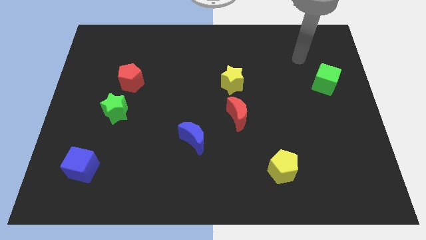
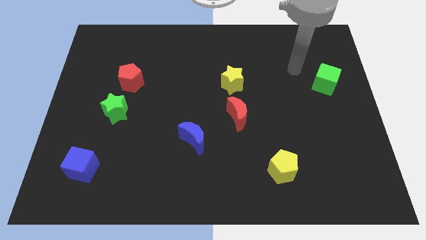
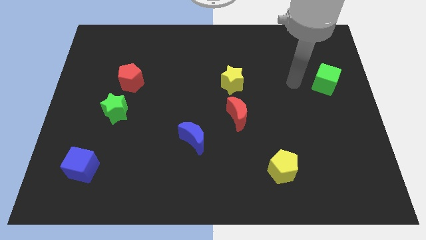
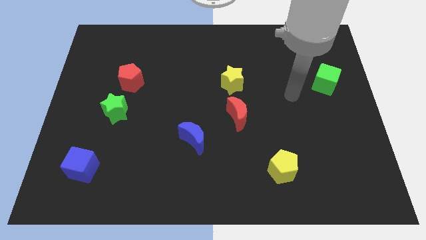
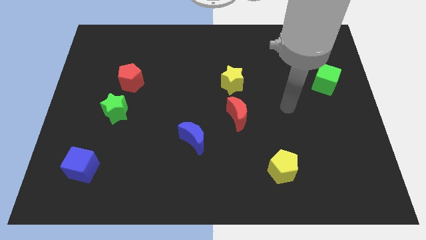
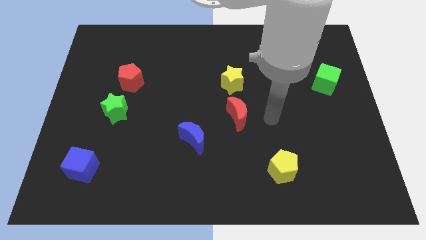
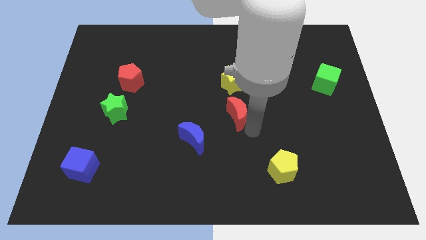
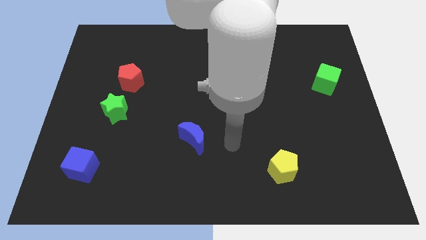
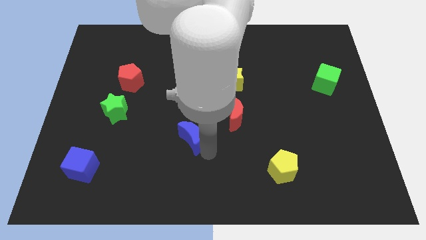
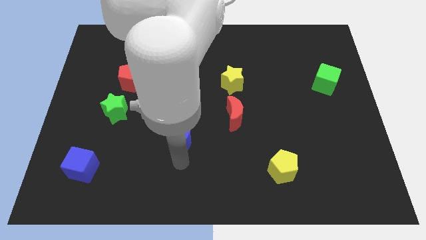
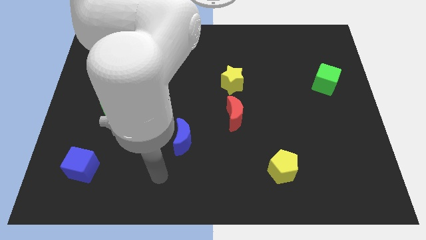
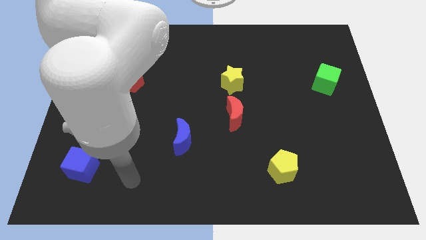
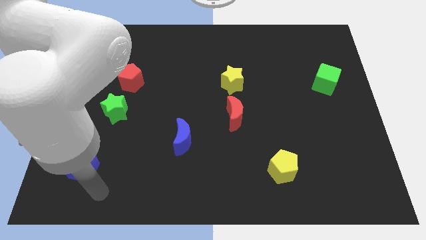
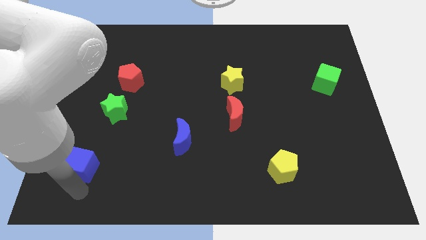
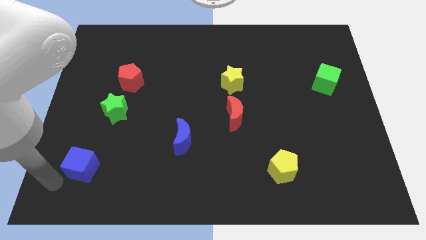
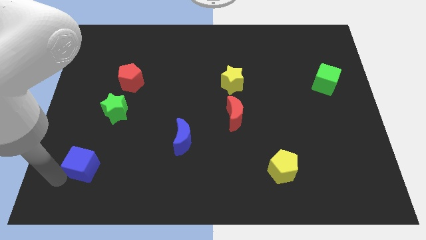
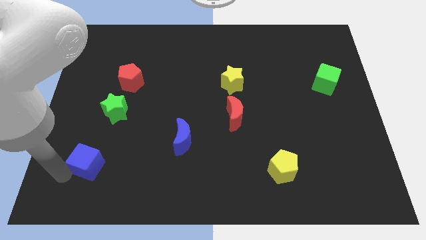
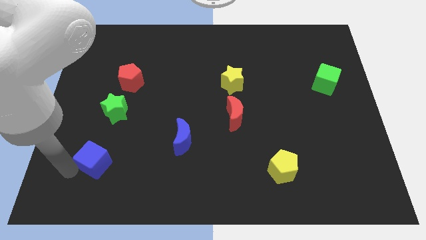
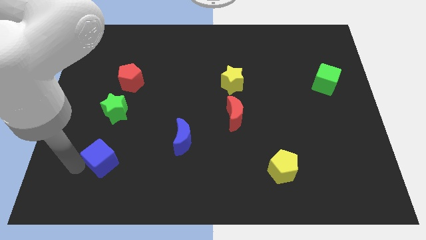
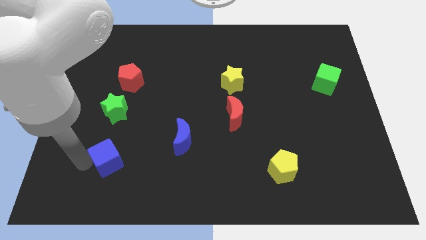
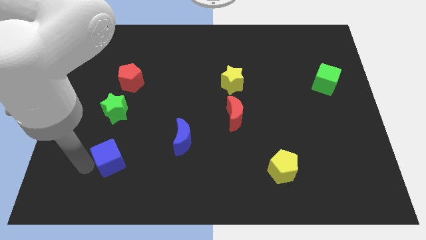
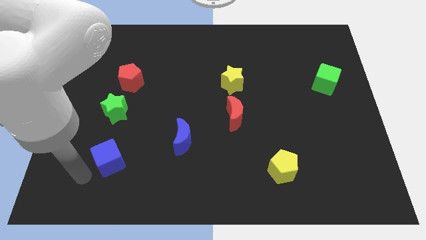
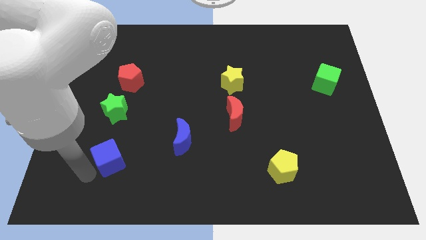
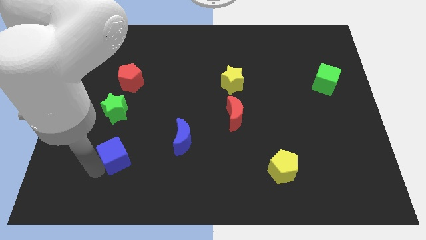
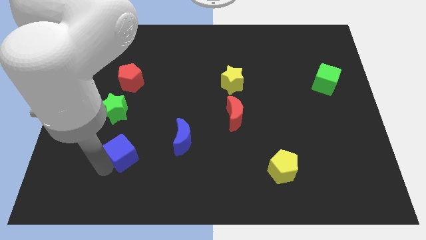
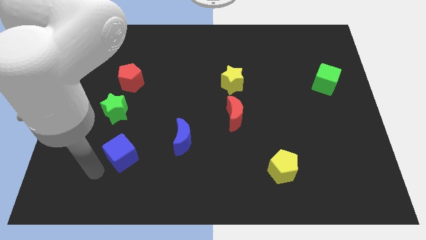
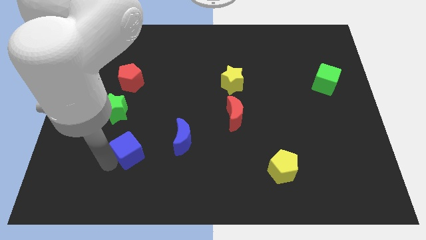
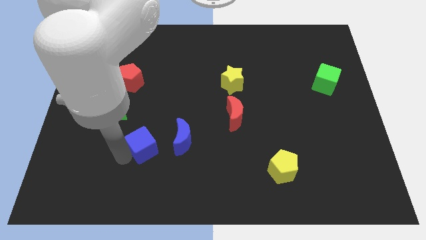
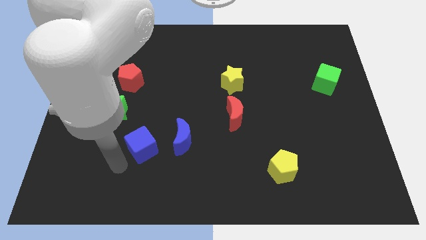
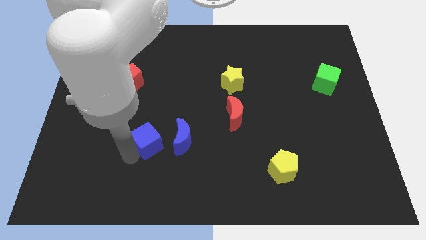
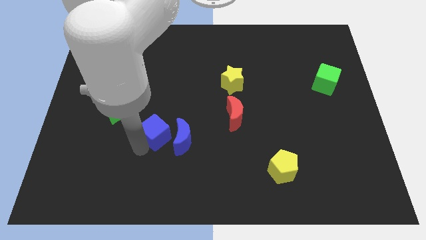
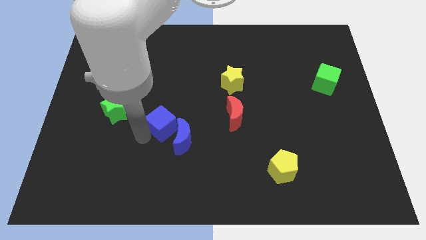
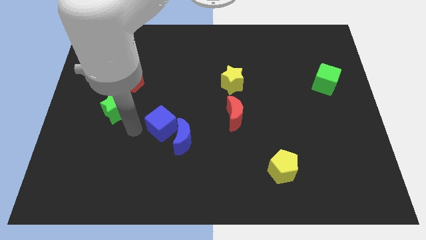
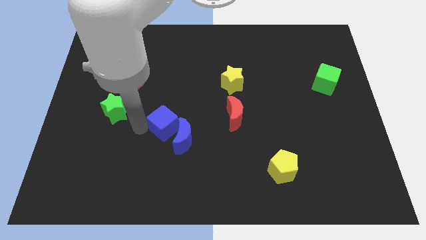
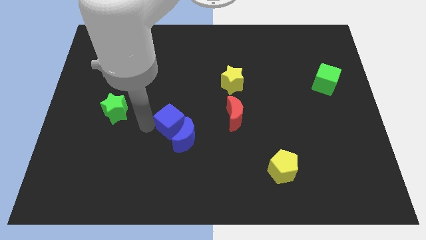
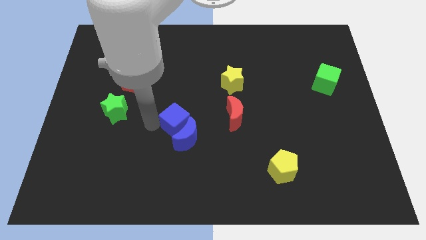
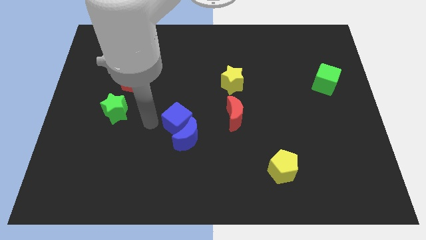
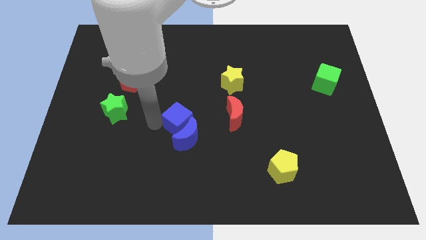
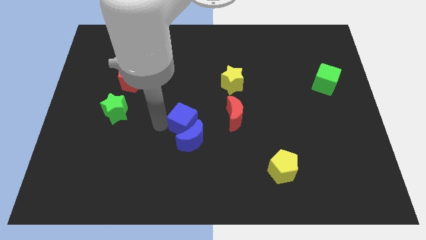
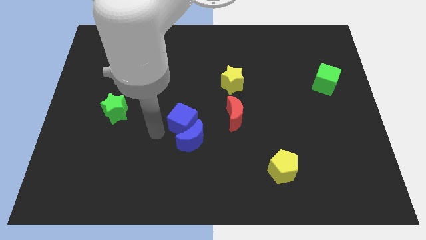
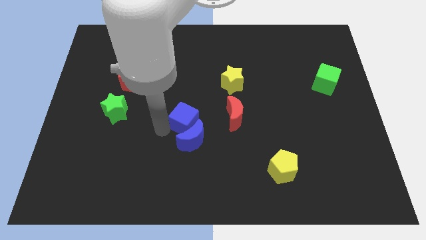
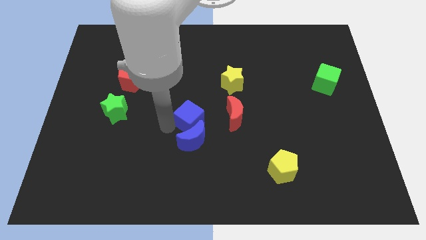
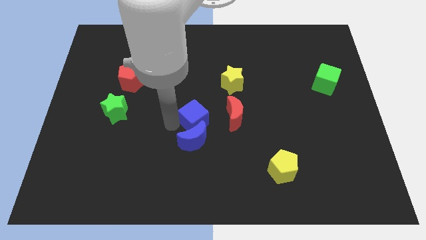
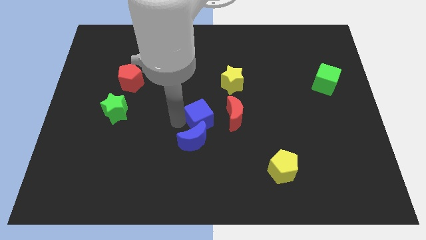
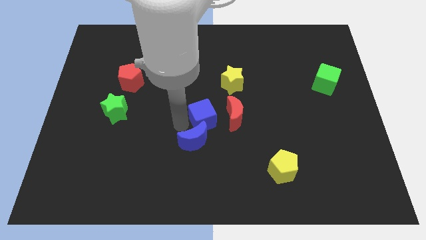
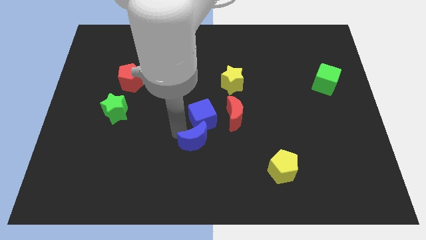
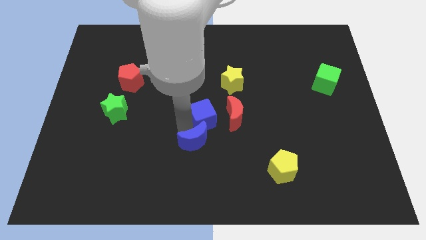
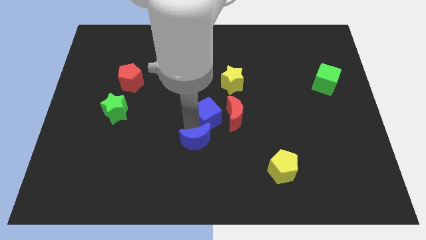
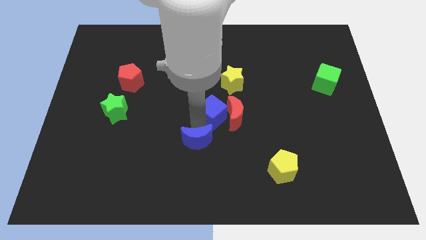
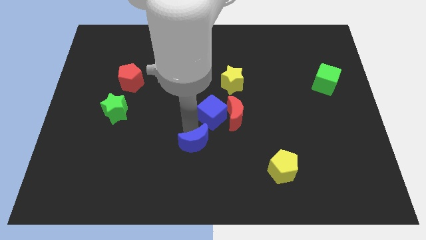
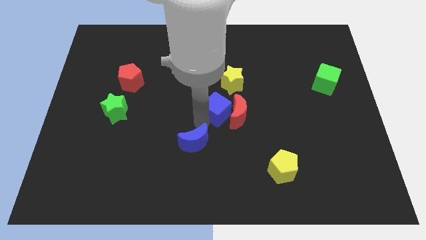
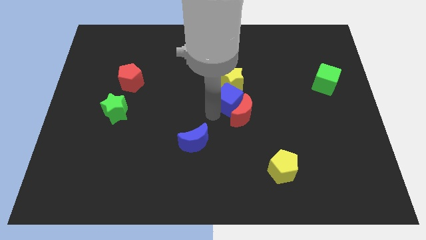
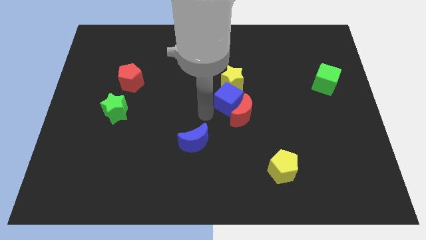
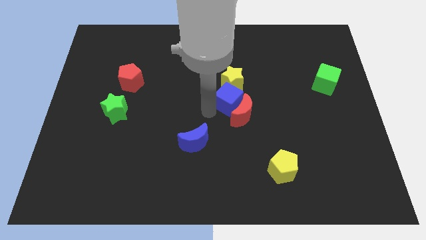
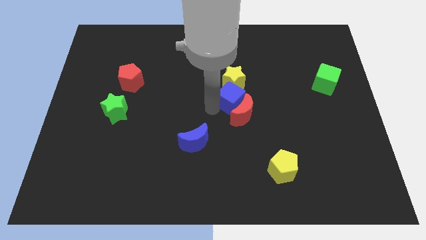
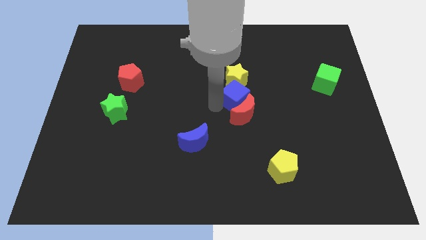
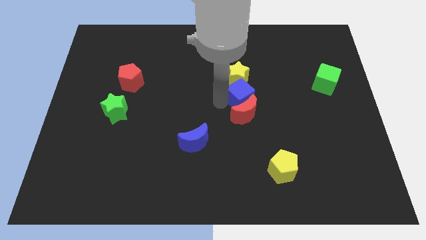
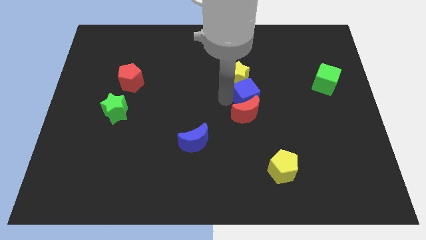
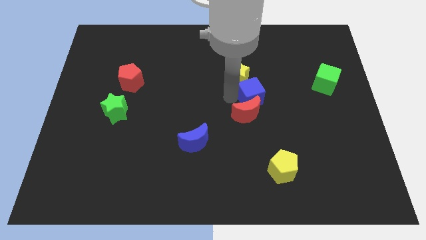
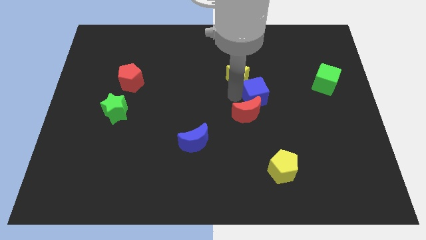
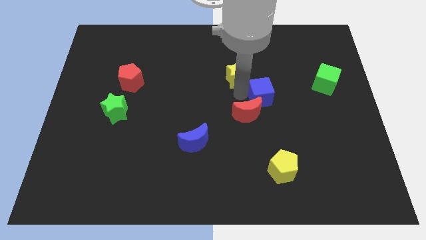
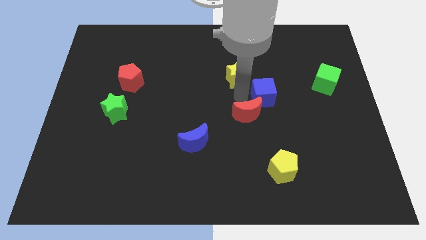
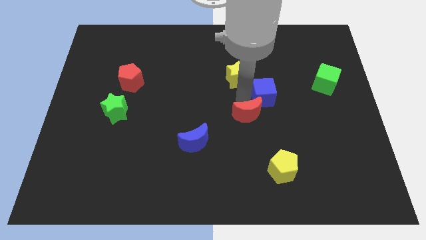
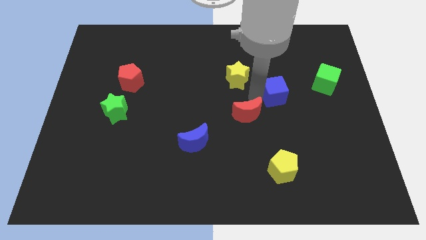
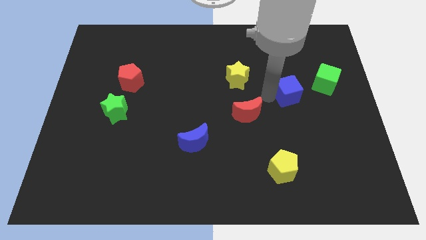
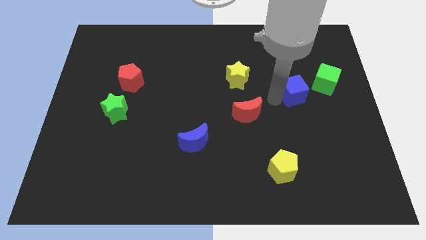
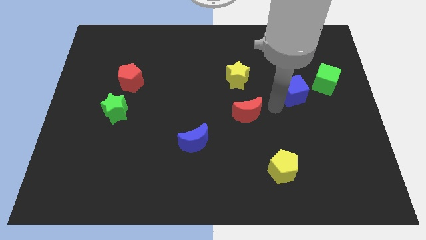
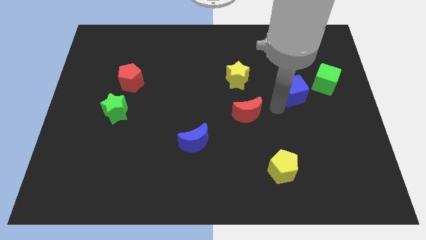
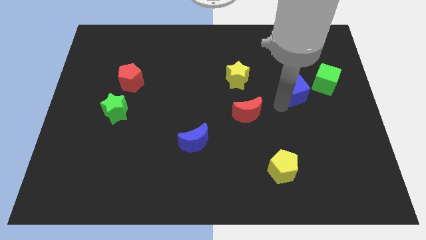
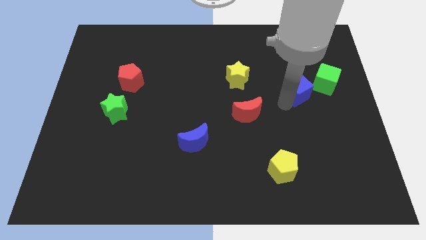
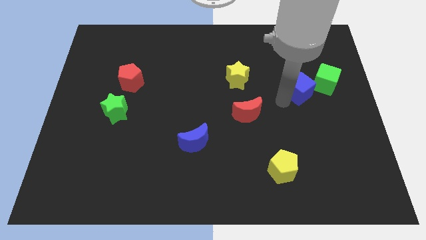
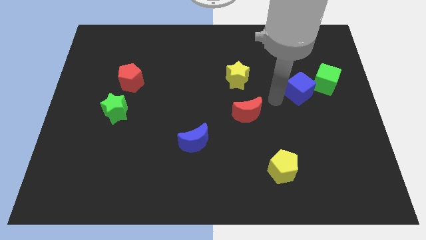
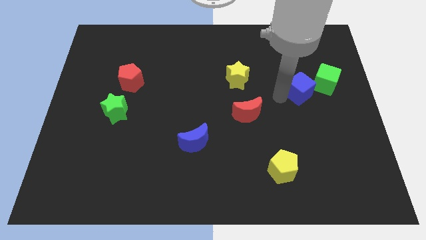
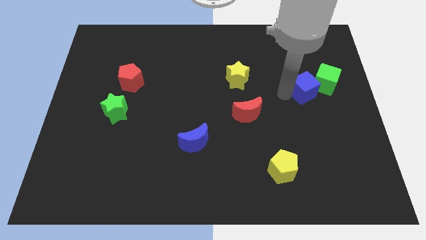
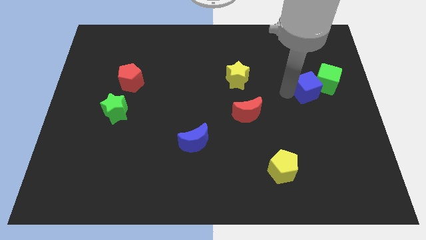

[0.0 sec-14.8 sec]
push the blue cube towards the green cube

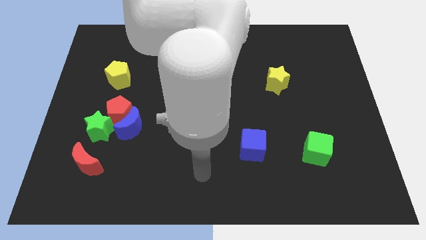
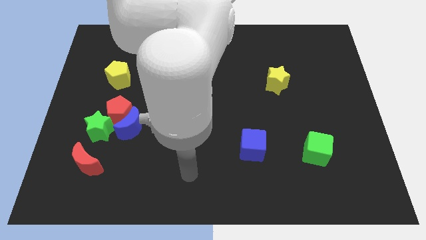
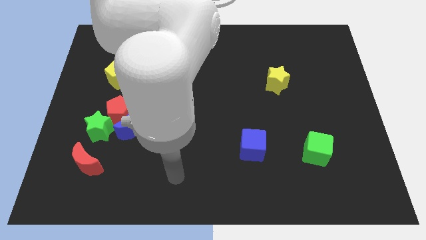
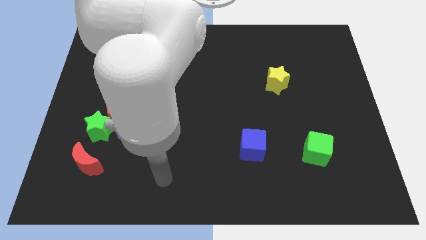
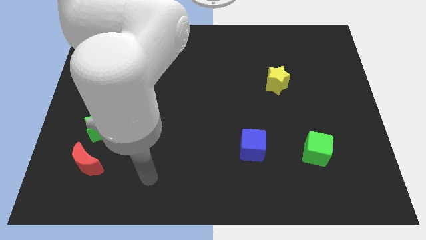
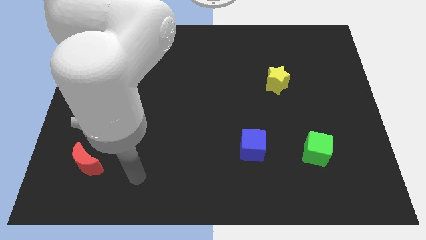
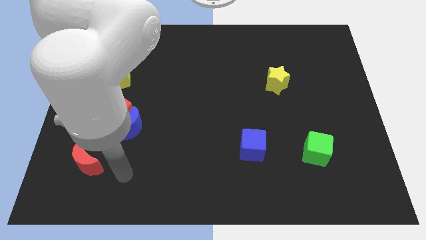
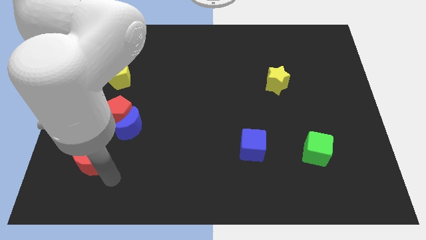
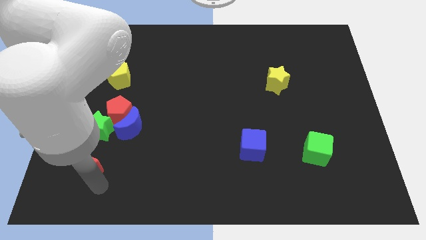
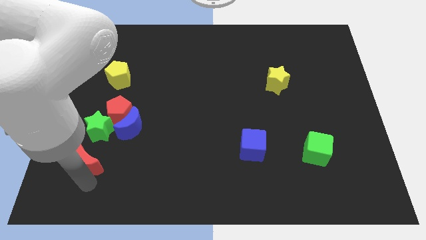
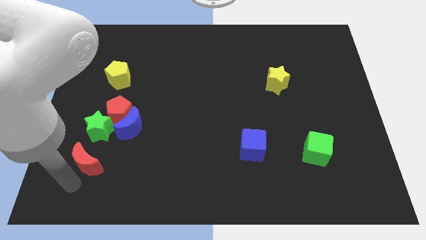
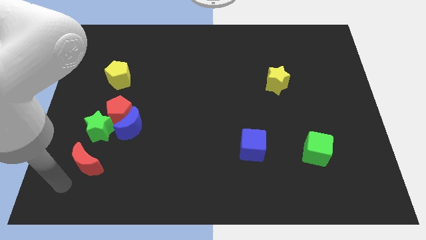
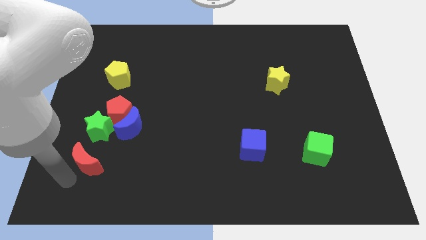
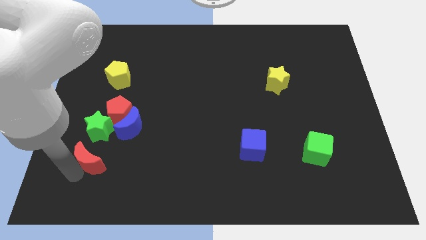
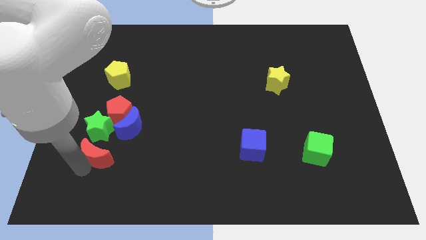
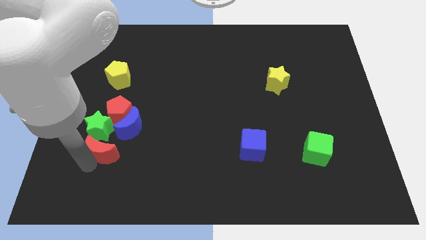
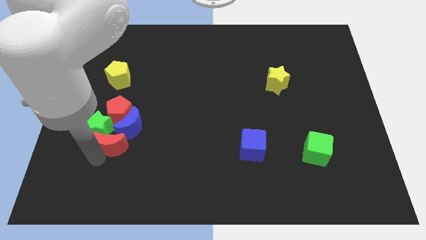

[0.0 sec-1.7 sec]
push the red moon next to the blue moon
